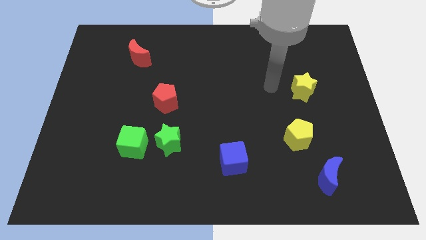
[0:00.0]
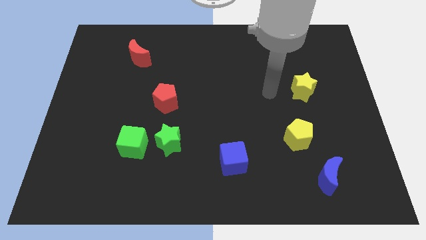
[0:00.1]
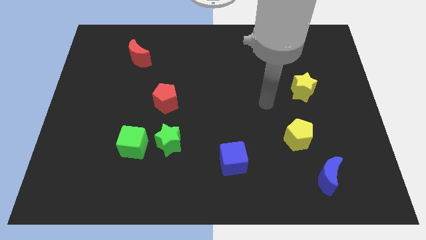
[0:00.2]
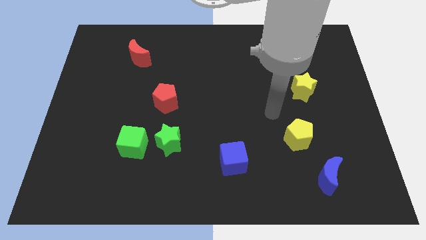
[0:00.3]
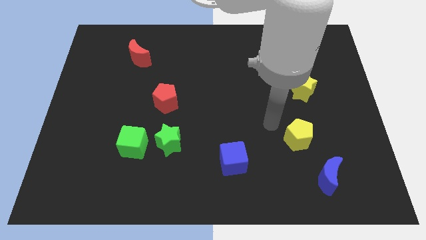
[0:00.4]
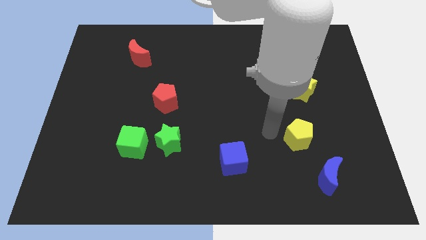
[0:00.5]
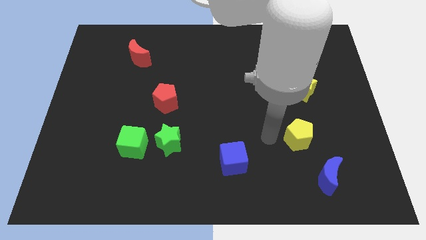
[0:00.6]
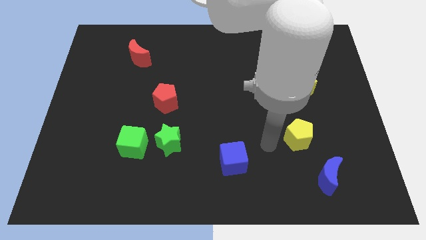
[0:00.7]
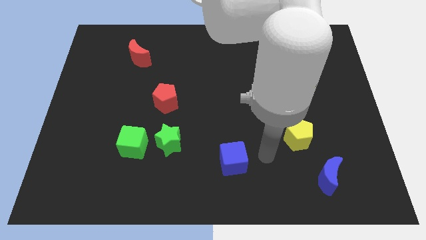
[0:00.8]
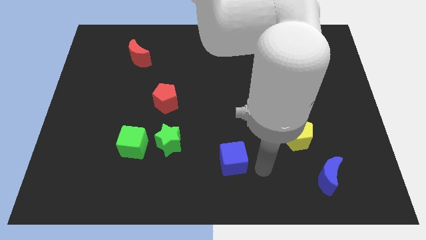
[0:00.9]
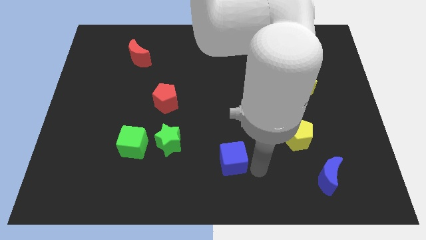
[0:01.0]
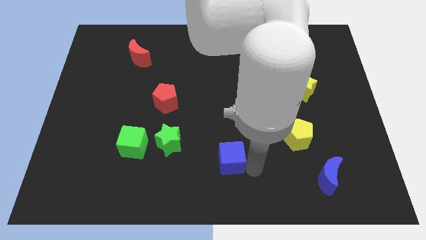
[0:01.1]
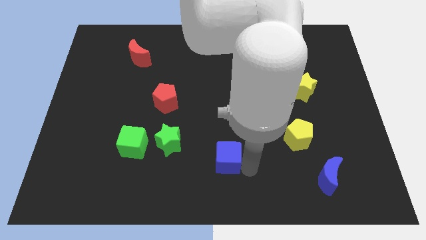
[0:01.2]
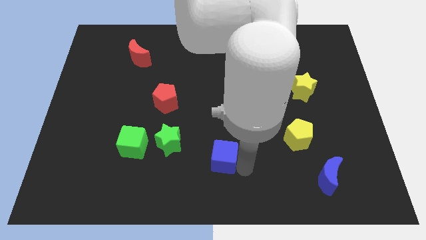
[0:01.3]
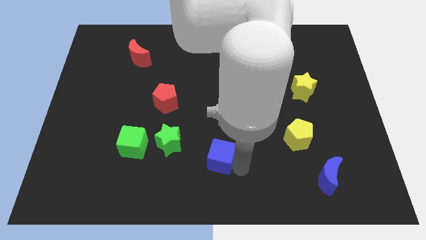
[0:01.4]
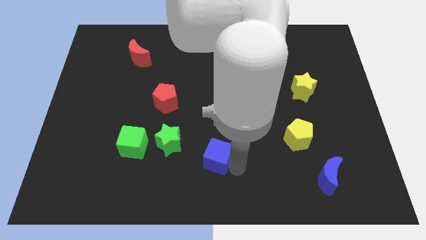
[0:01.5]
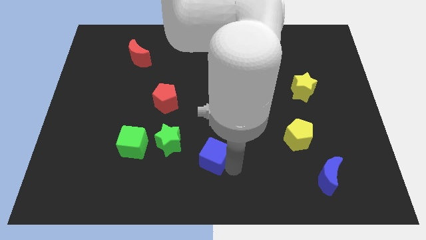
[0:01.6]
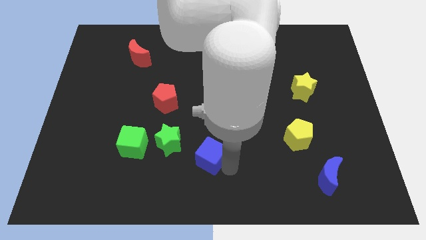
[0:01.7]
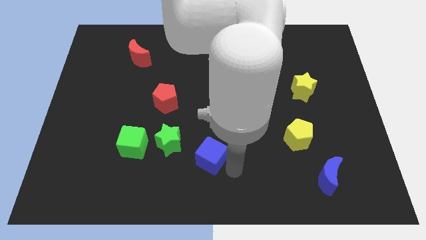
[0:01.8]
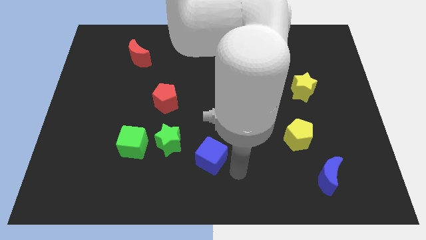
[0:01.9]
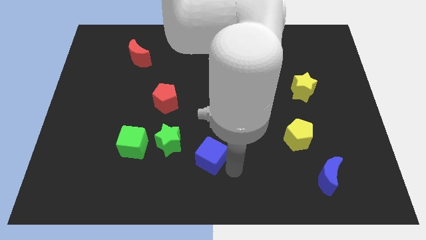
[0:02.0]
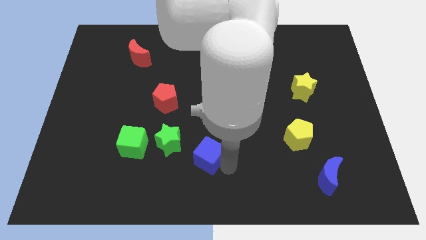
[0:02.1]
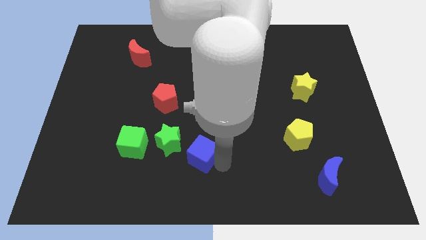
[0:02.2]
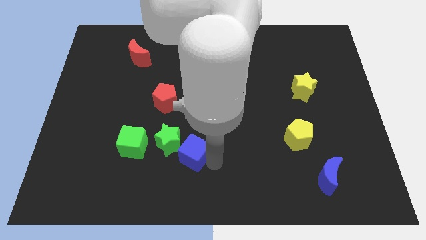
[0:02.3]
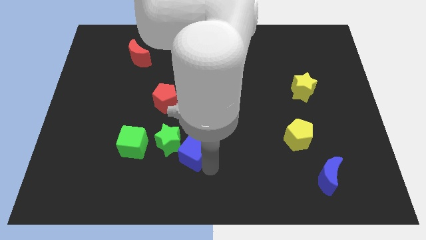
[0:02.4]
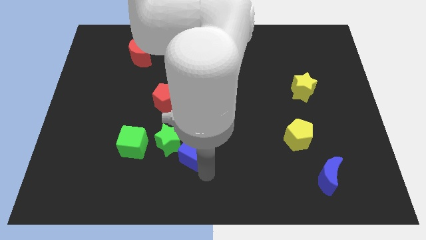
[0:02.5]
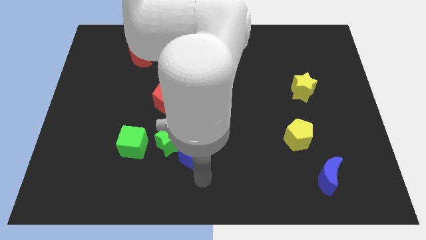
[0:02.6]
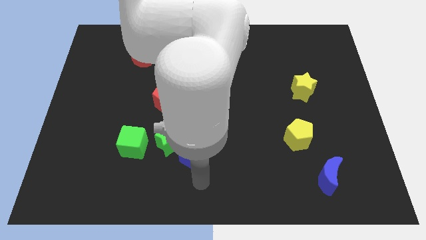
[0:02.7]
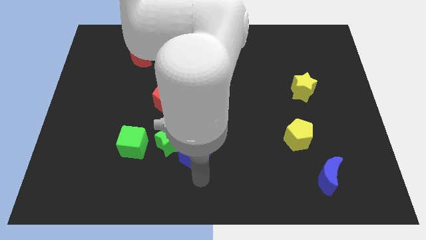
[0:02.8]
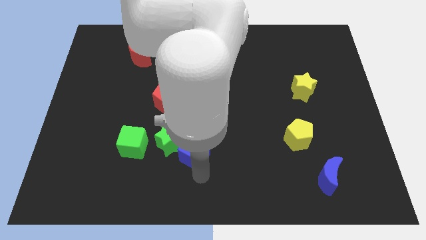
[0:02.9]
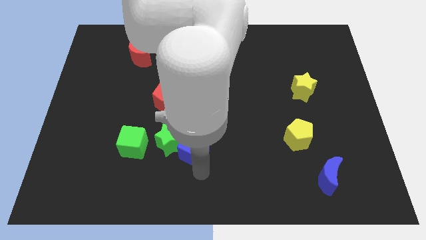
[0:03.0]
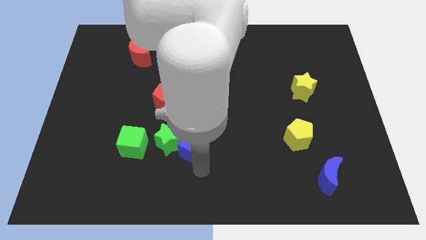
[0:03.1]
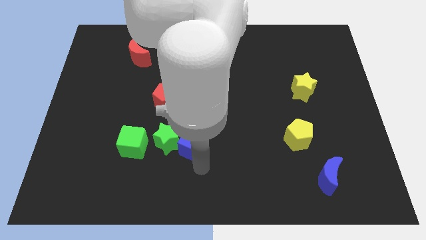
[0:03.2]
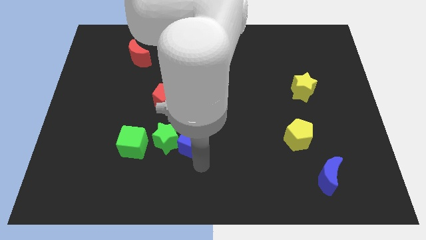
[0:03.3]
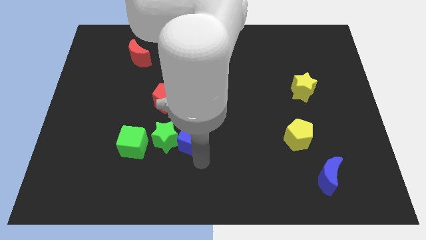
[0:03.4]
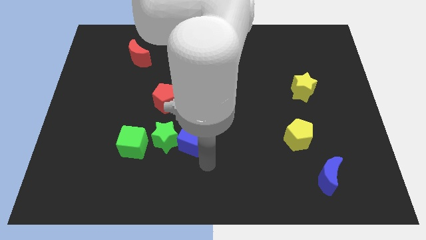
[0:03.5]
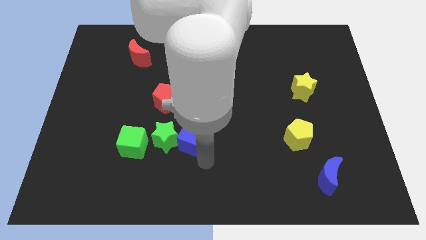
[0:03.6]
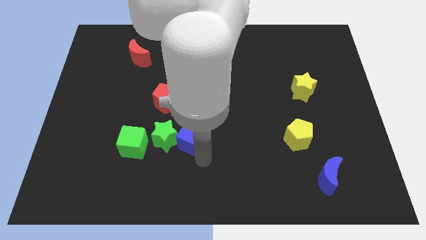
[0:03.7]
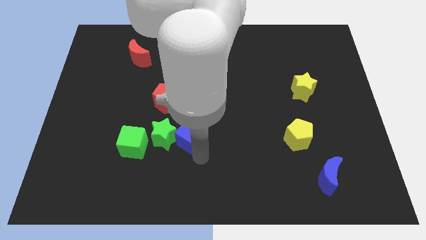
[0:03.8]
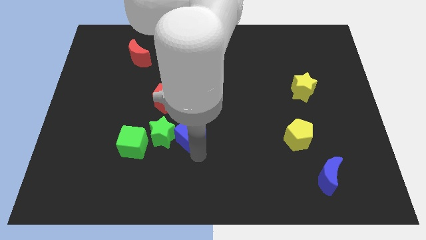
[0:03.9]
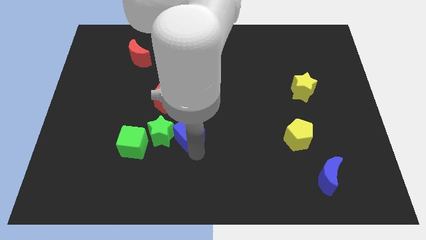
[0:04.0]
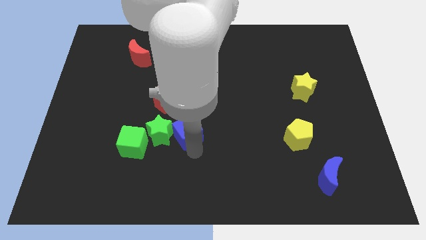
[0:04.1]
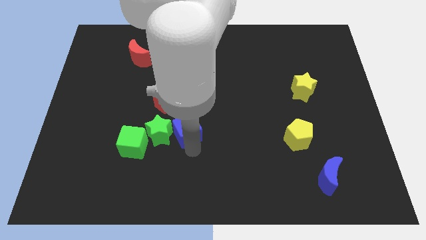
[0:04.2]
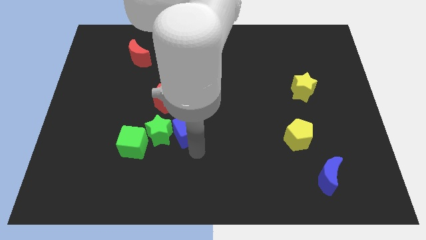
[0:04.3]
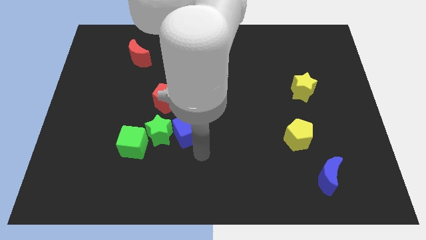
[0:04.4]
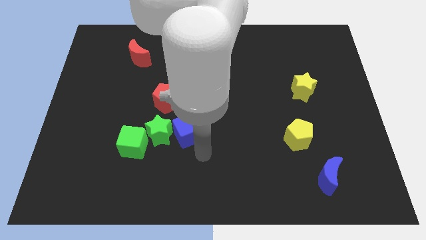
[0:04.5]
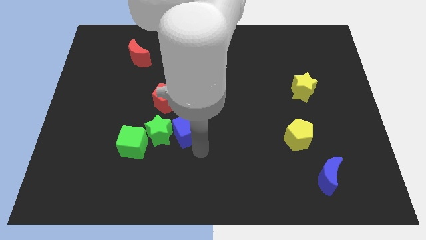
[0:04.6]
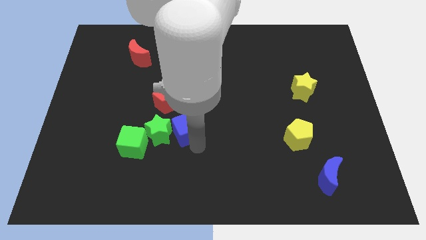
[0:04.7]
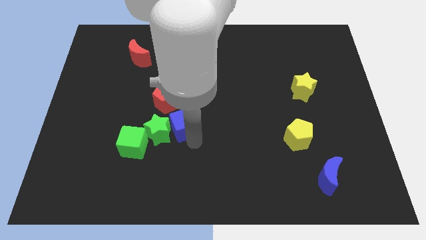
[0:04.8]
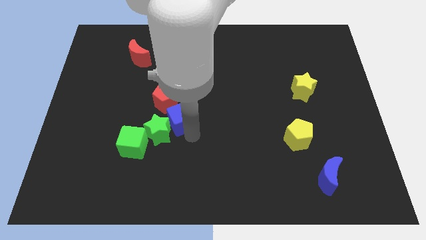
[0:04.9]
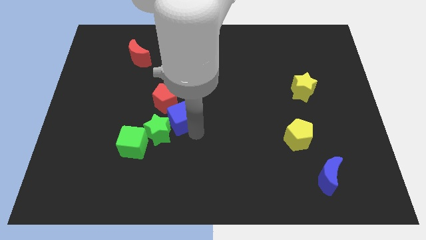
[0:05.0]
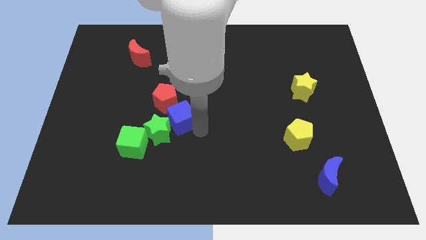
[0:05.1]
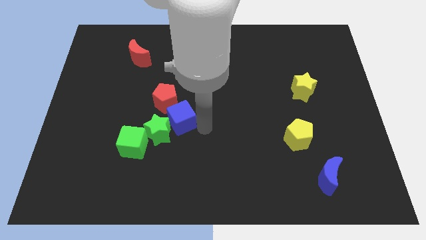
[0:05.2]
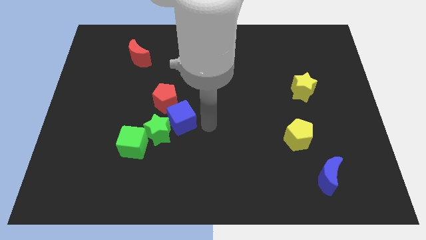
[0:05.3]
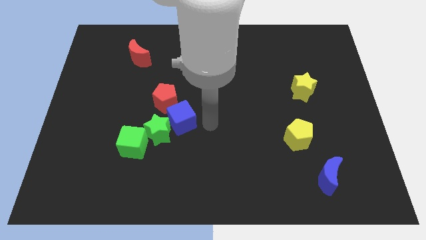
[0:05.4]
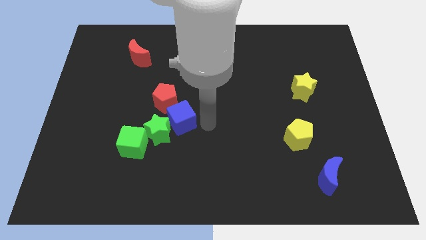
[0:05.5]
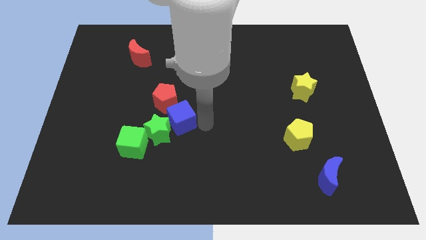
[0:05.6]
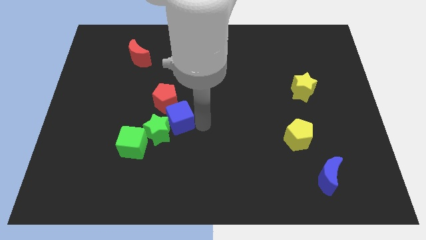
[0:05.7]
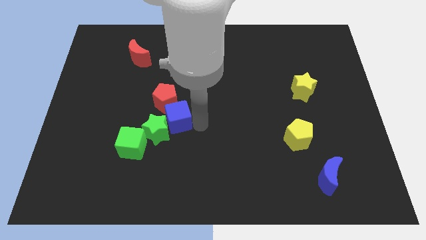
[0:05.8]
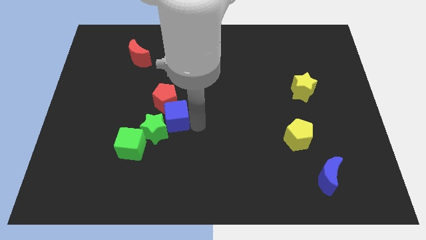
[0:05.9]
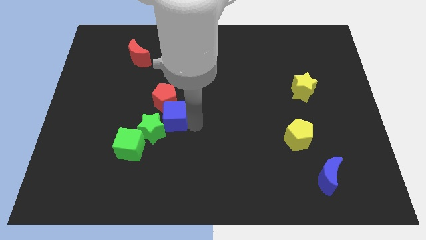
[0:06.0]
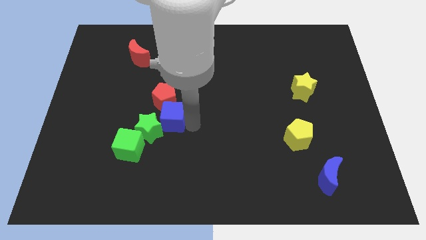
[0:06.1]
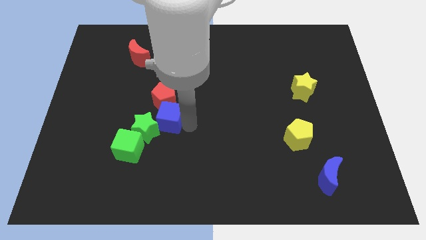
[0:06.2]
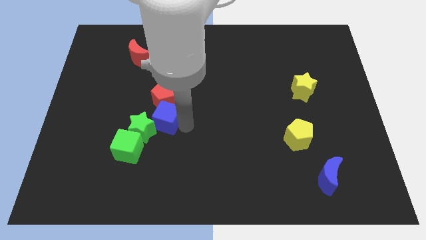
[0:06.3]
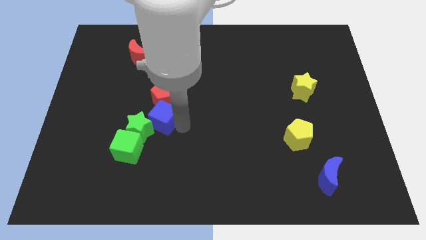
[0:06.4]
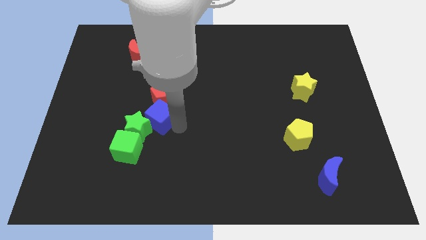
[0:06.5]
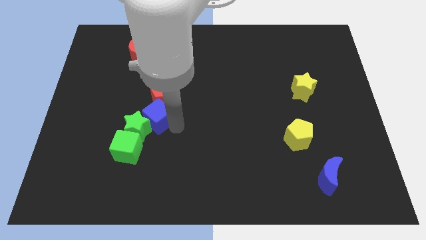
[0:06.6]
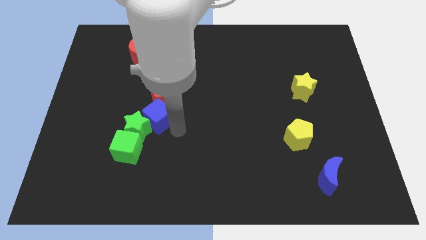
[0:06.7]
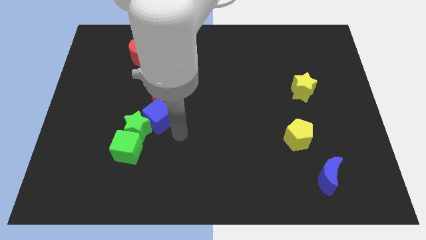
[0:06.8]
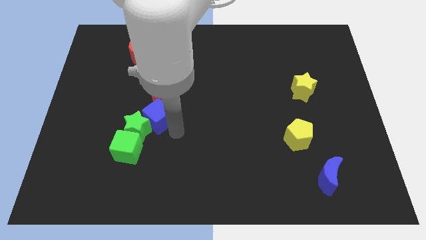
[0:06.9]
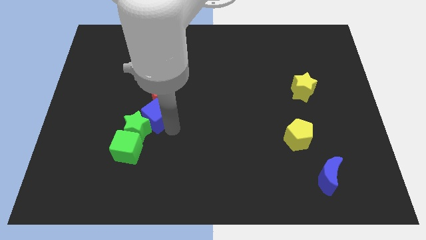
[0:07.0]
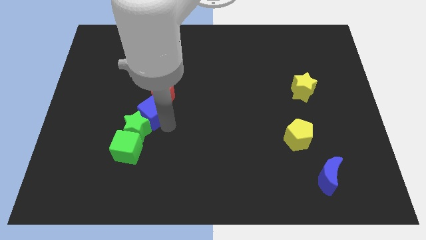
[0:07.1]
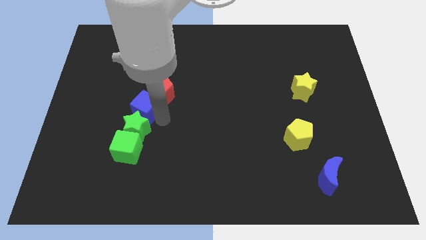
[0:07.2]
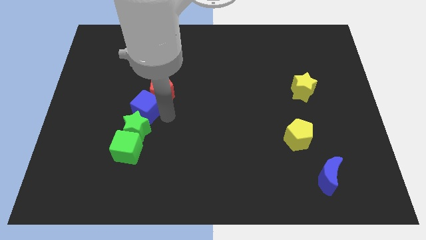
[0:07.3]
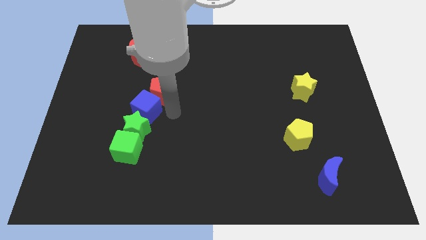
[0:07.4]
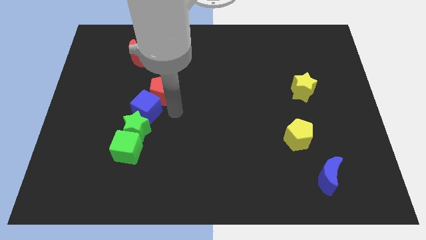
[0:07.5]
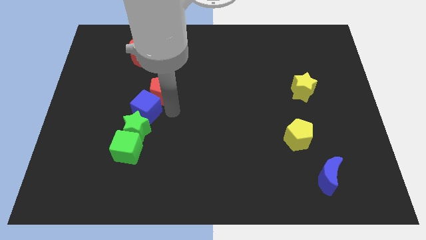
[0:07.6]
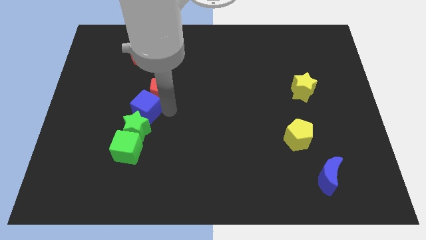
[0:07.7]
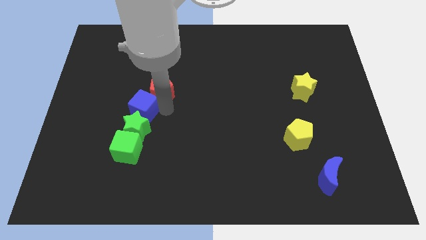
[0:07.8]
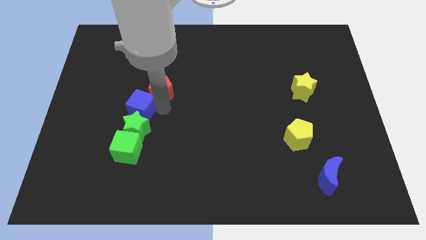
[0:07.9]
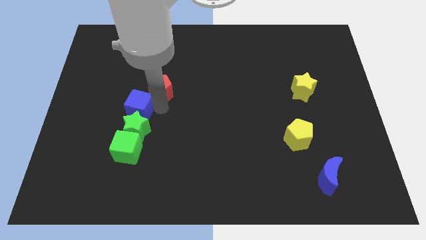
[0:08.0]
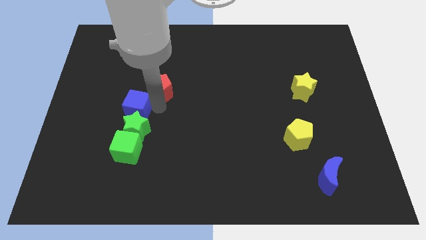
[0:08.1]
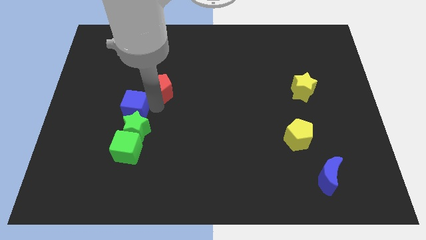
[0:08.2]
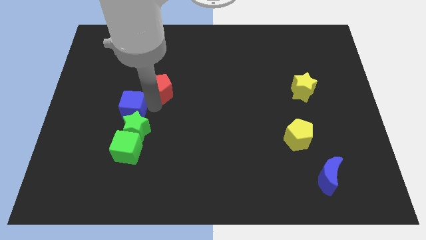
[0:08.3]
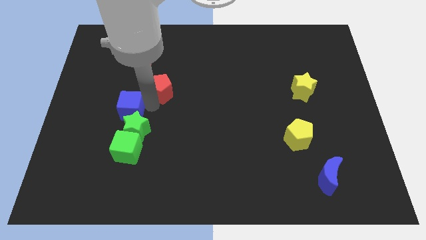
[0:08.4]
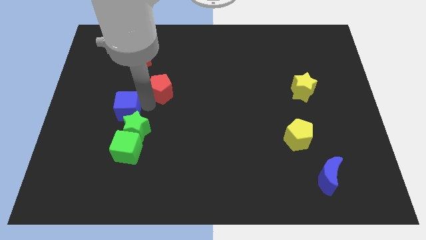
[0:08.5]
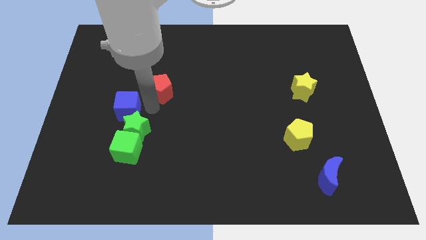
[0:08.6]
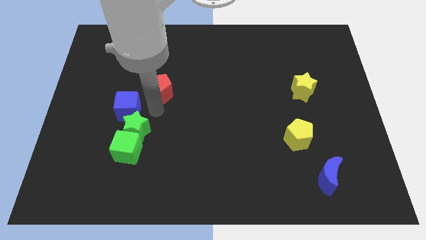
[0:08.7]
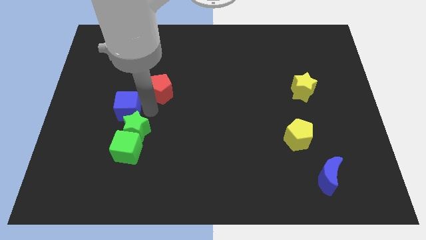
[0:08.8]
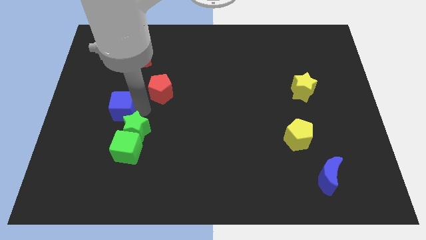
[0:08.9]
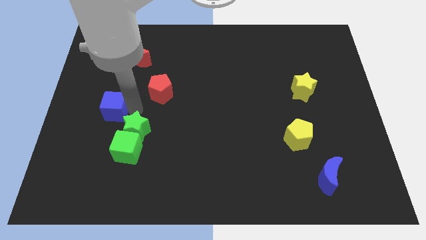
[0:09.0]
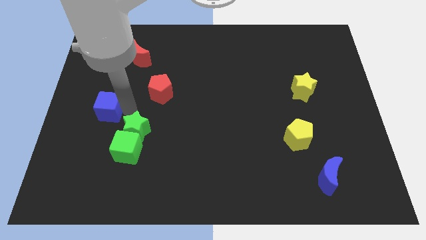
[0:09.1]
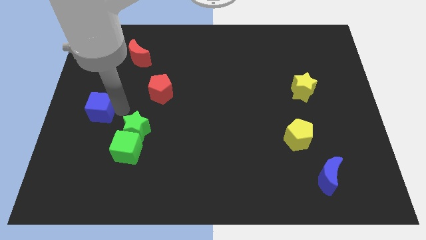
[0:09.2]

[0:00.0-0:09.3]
put the blue cube to the left side of the board
